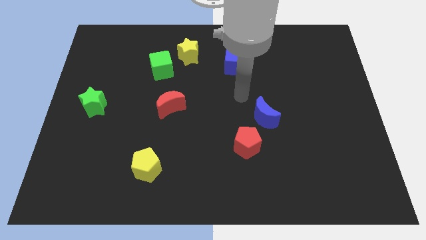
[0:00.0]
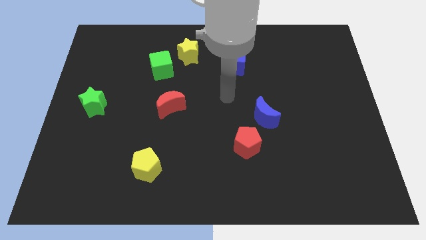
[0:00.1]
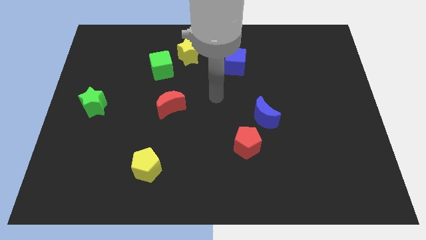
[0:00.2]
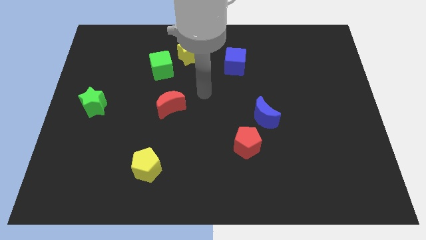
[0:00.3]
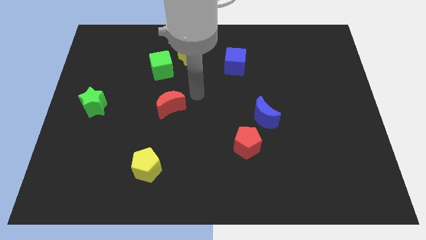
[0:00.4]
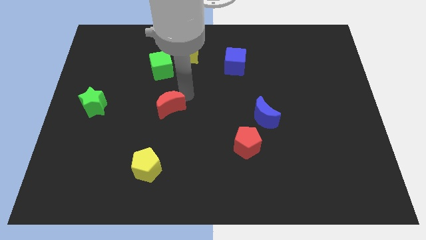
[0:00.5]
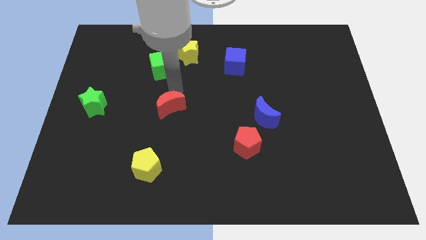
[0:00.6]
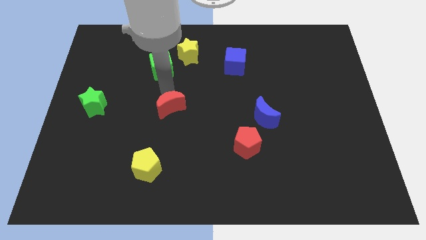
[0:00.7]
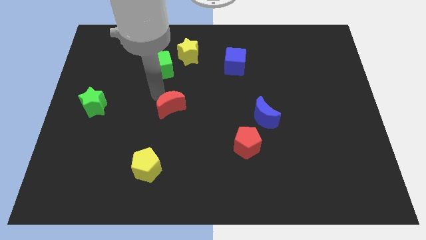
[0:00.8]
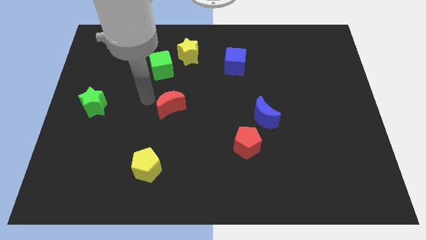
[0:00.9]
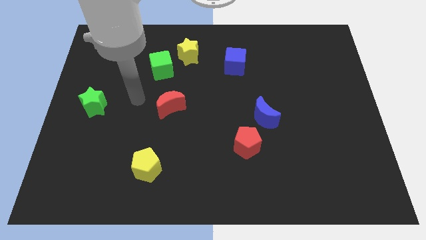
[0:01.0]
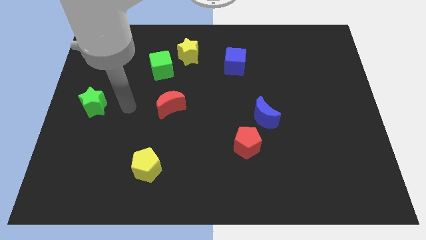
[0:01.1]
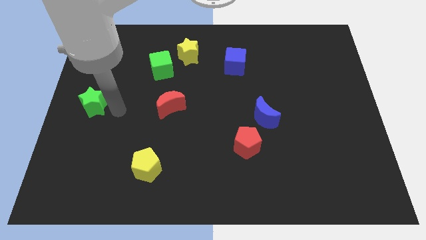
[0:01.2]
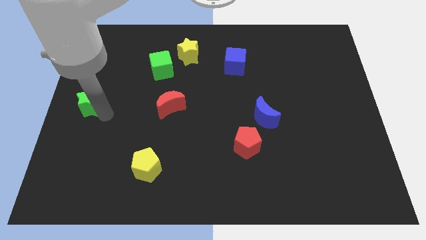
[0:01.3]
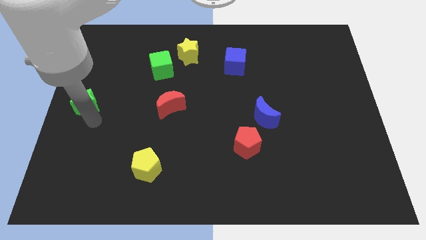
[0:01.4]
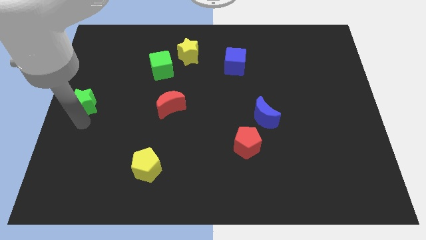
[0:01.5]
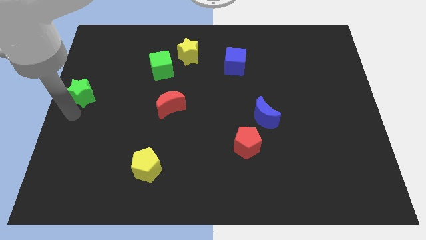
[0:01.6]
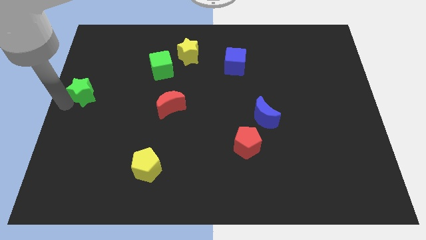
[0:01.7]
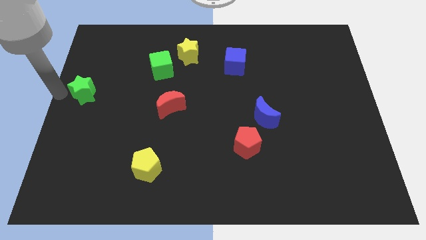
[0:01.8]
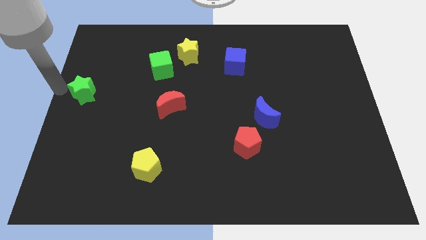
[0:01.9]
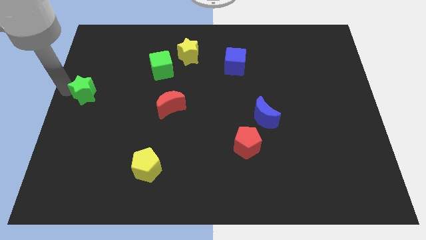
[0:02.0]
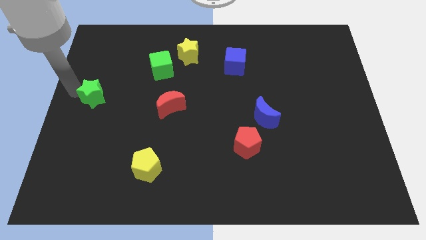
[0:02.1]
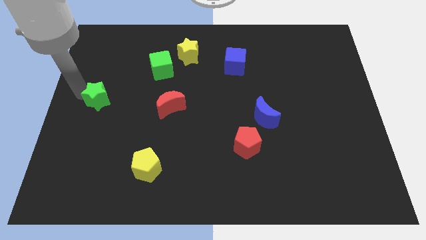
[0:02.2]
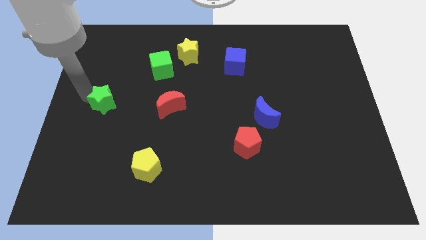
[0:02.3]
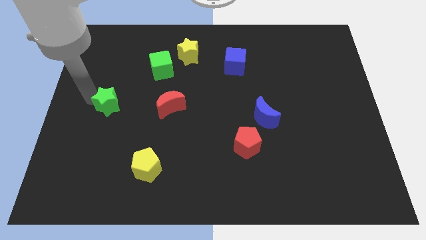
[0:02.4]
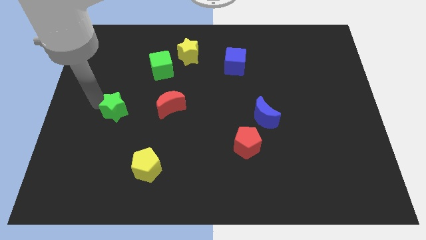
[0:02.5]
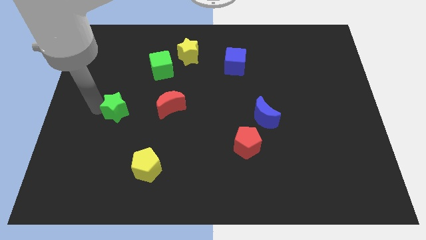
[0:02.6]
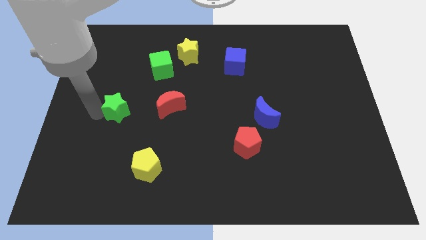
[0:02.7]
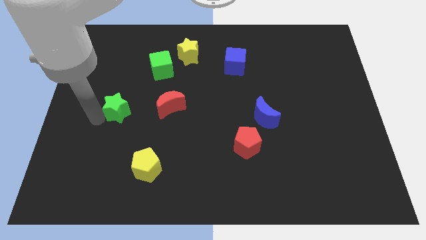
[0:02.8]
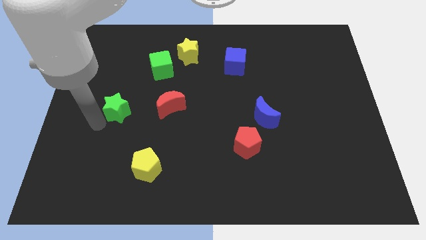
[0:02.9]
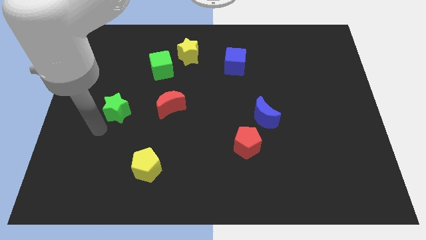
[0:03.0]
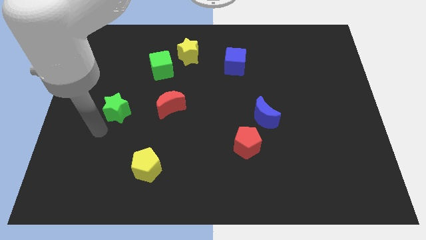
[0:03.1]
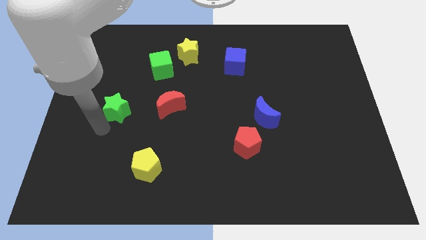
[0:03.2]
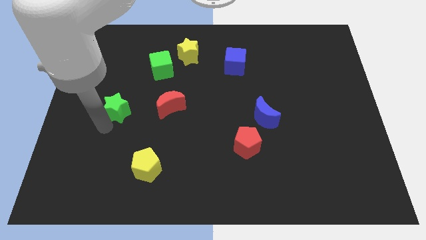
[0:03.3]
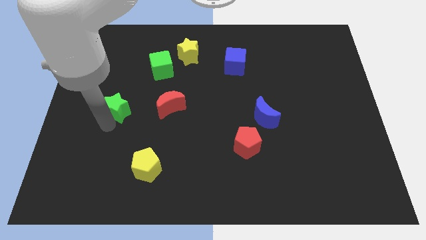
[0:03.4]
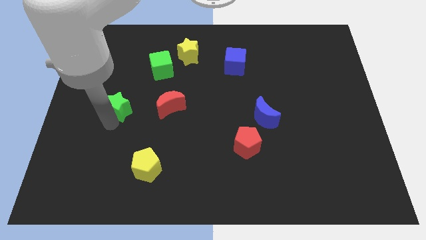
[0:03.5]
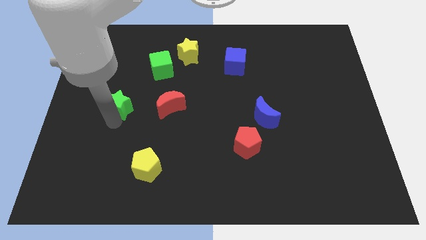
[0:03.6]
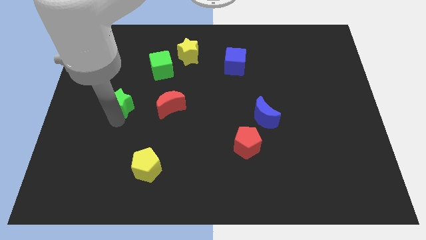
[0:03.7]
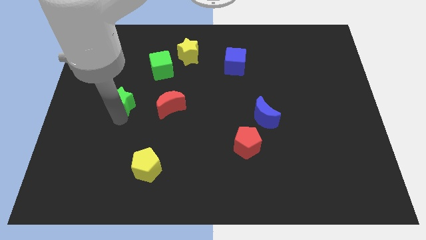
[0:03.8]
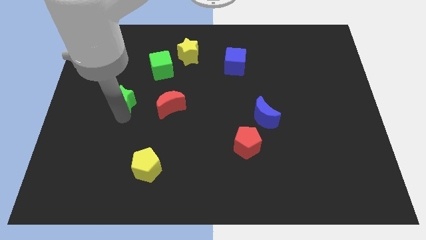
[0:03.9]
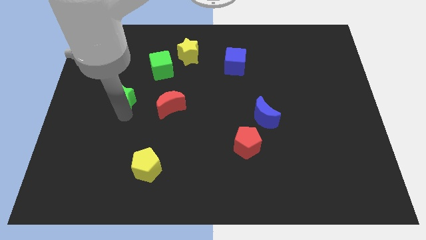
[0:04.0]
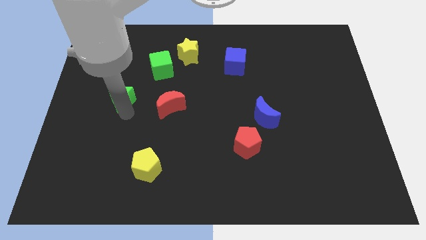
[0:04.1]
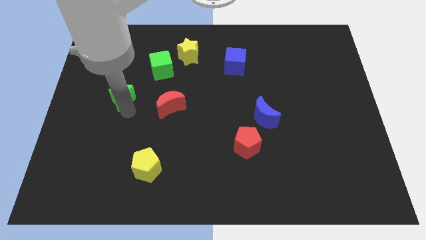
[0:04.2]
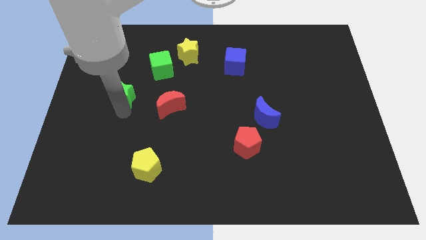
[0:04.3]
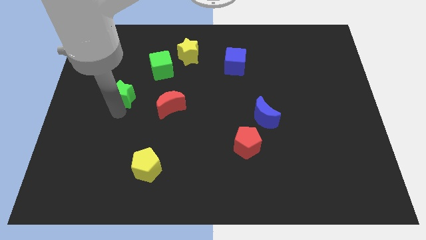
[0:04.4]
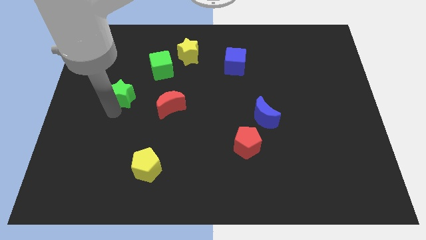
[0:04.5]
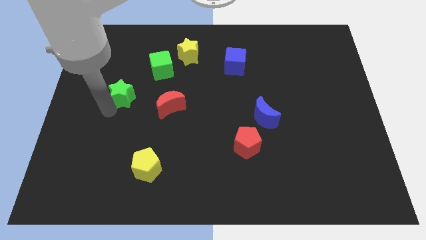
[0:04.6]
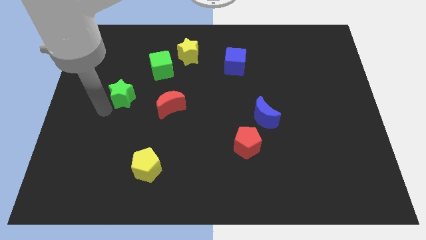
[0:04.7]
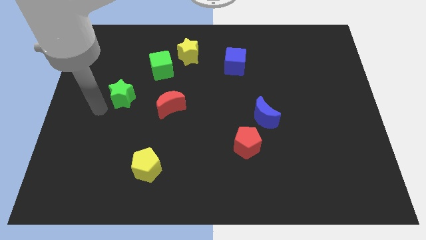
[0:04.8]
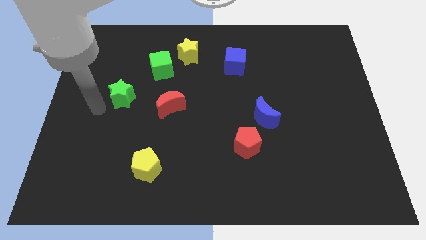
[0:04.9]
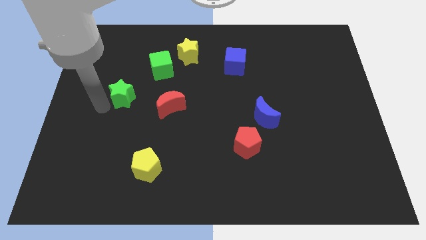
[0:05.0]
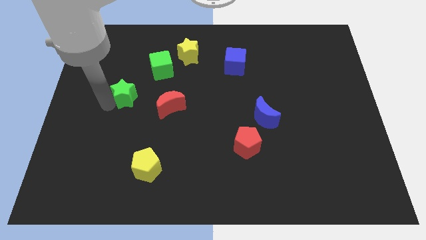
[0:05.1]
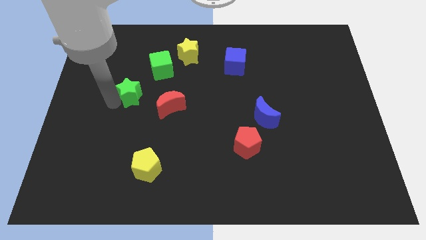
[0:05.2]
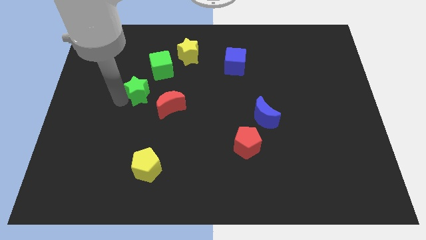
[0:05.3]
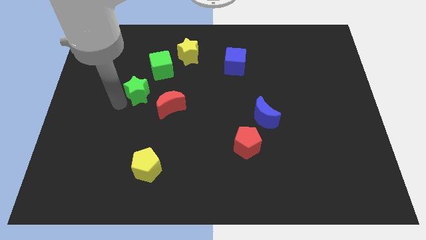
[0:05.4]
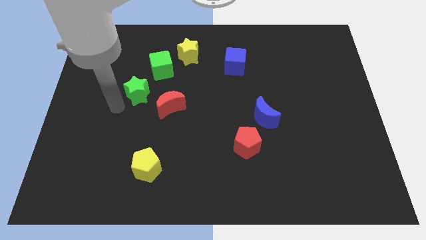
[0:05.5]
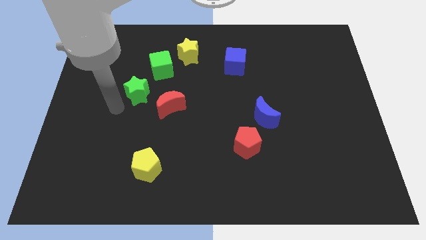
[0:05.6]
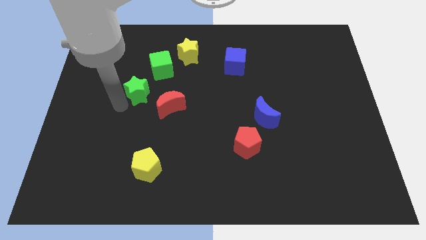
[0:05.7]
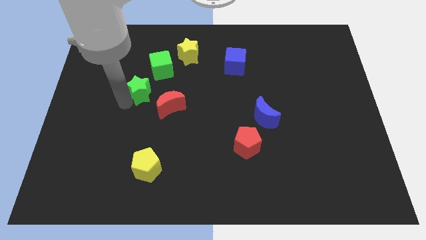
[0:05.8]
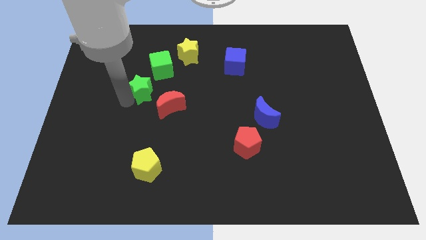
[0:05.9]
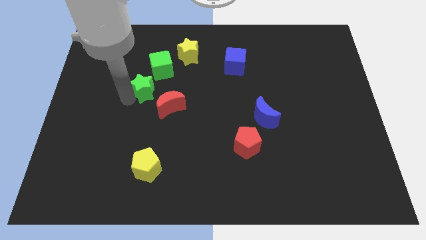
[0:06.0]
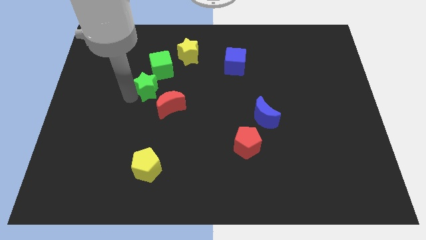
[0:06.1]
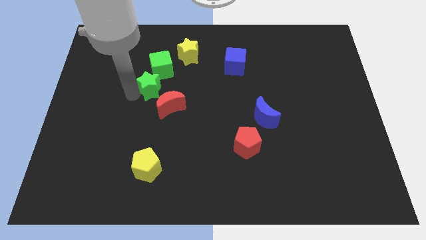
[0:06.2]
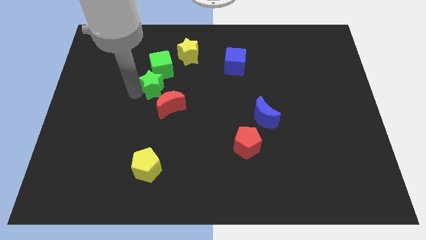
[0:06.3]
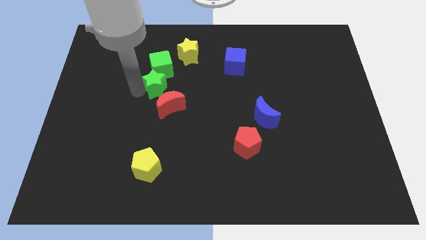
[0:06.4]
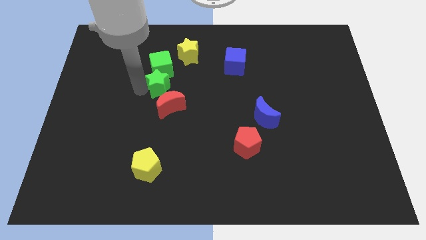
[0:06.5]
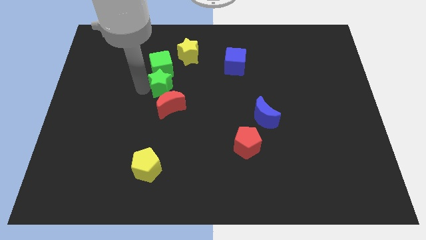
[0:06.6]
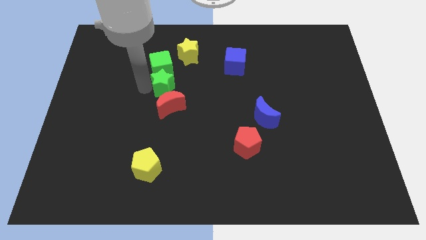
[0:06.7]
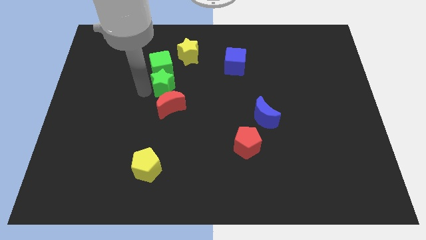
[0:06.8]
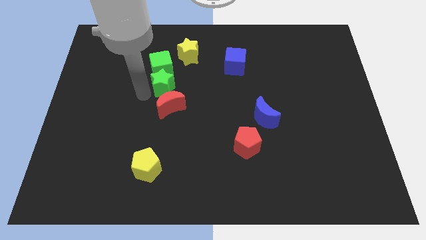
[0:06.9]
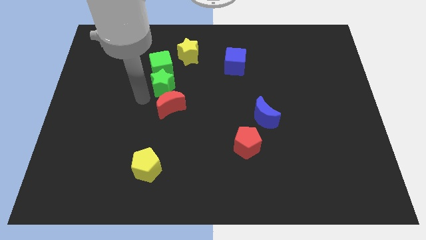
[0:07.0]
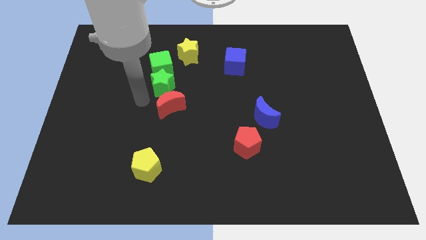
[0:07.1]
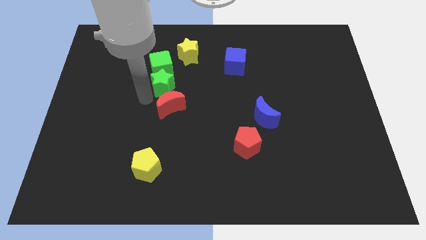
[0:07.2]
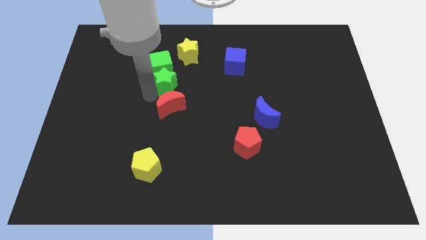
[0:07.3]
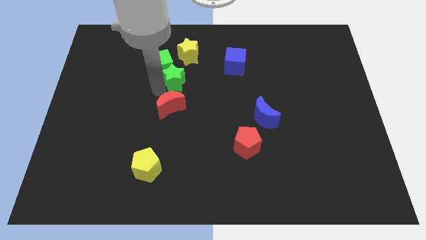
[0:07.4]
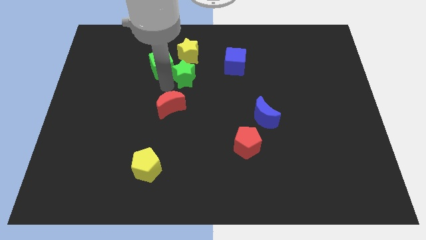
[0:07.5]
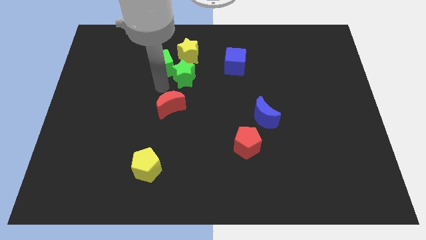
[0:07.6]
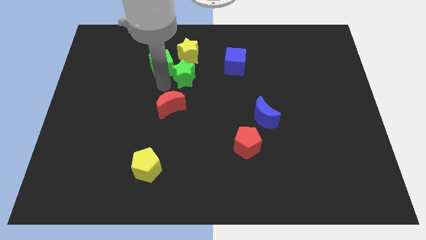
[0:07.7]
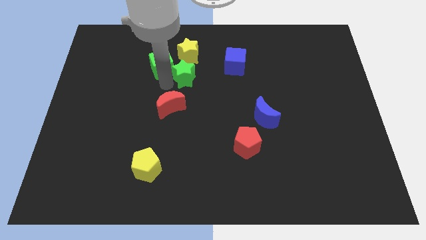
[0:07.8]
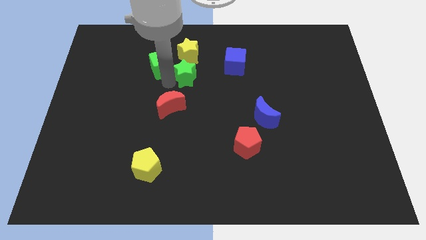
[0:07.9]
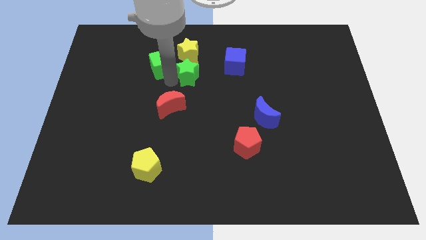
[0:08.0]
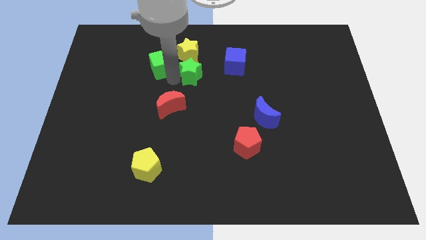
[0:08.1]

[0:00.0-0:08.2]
push the green star to the bottom right side of the yellow star
